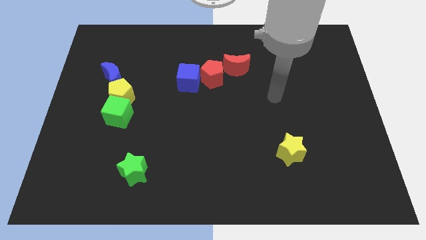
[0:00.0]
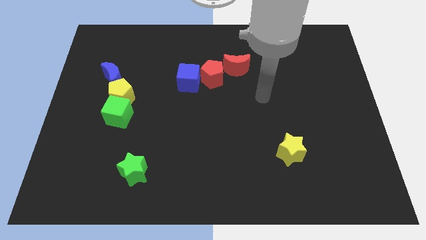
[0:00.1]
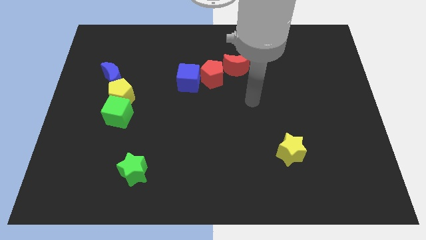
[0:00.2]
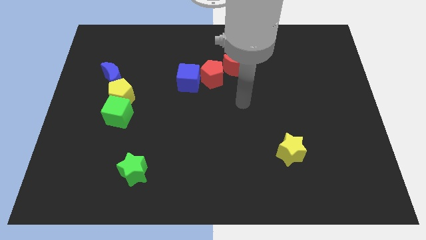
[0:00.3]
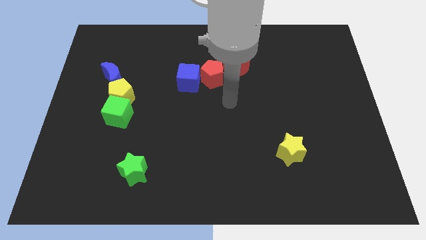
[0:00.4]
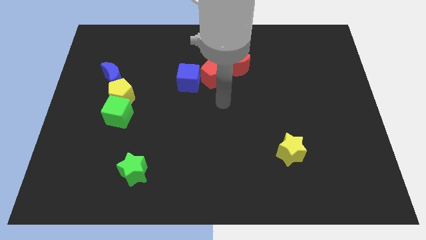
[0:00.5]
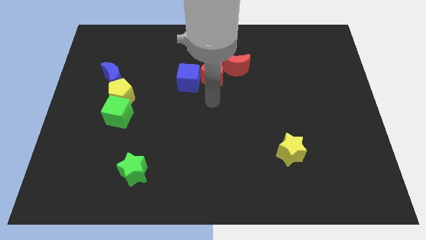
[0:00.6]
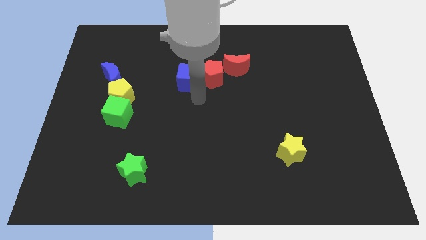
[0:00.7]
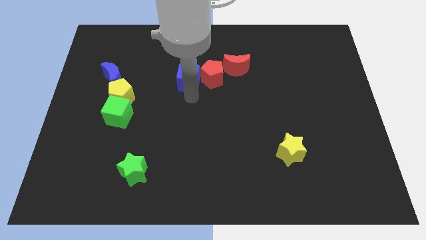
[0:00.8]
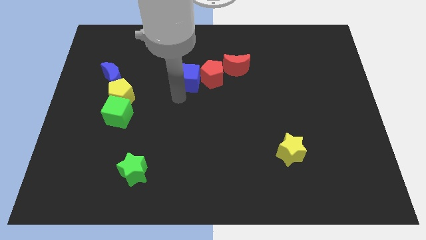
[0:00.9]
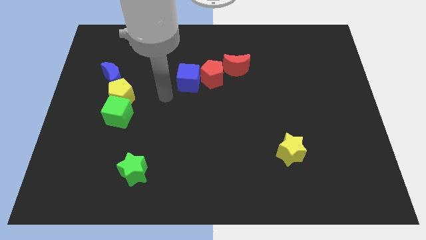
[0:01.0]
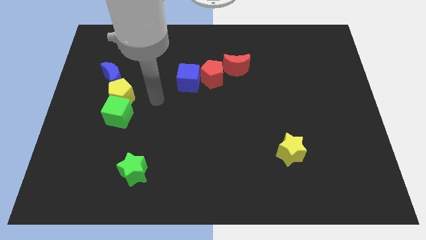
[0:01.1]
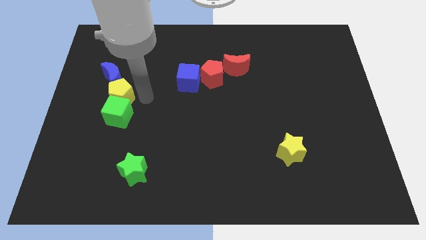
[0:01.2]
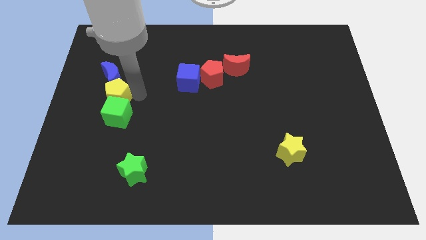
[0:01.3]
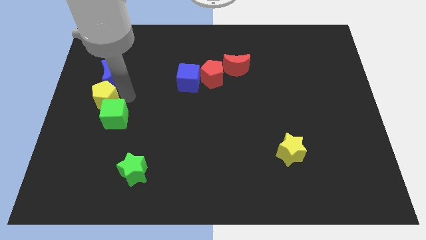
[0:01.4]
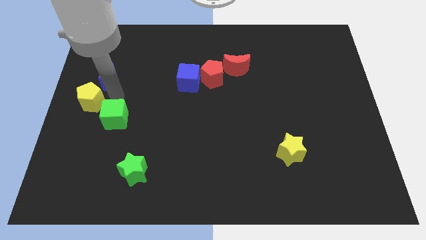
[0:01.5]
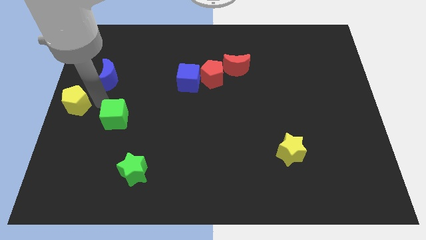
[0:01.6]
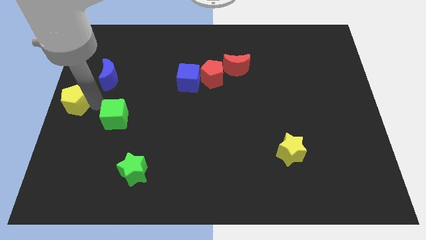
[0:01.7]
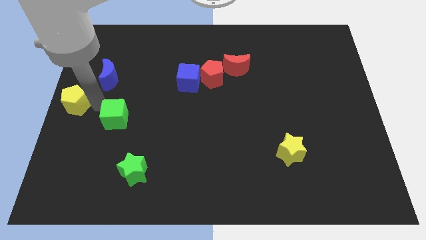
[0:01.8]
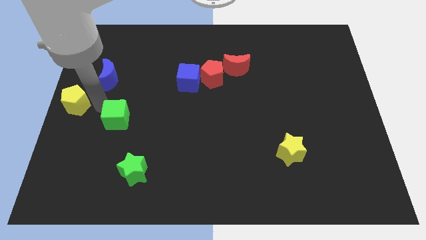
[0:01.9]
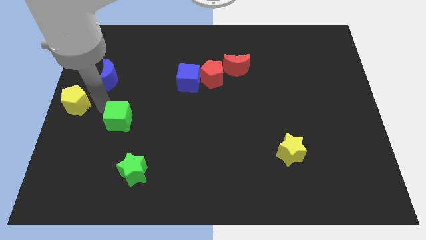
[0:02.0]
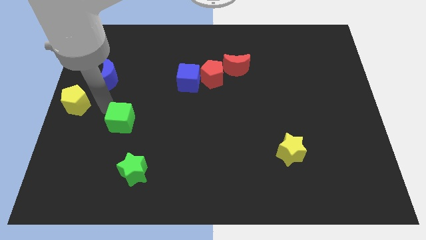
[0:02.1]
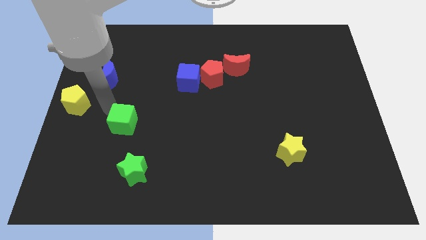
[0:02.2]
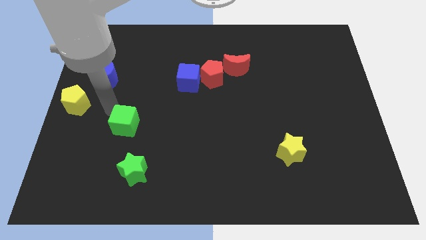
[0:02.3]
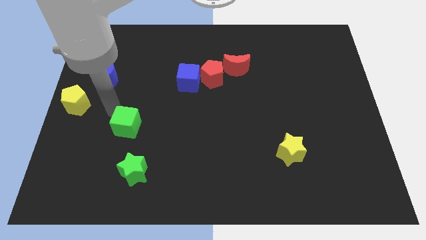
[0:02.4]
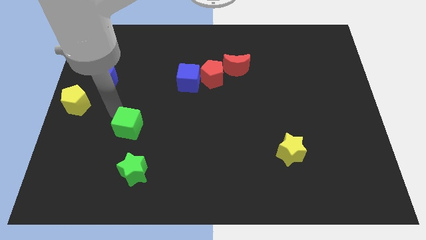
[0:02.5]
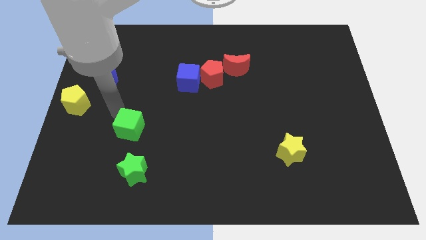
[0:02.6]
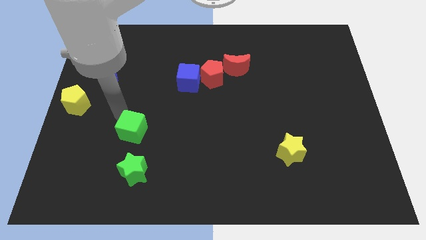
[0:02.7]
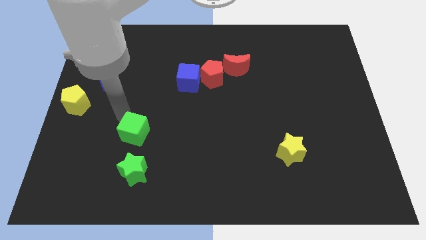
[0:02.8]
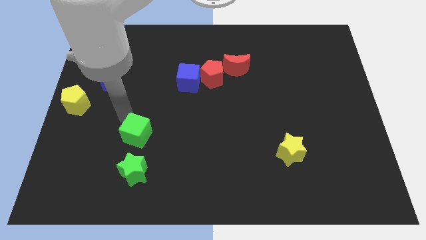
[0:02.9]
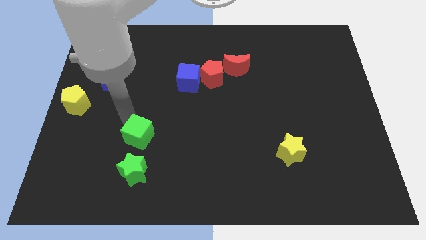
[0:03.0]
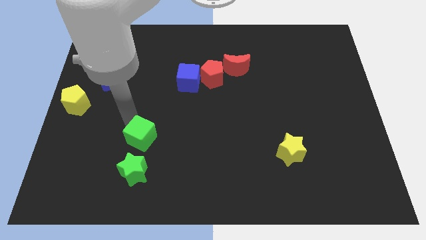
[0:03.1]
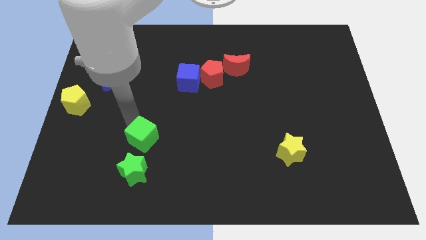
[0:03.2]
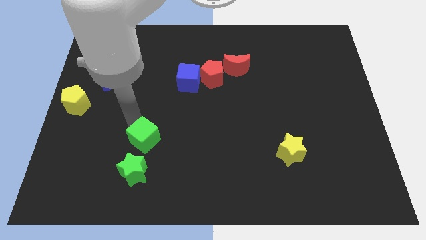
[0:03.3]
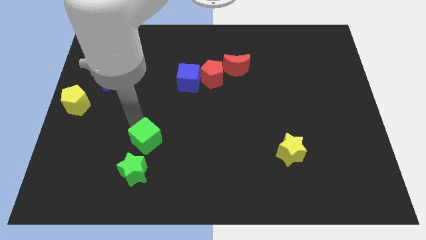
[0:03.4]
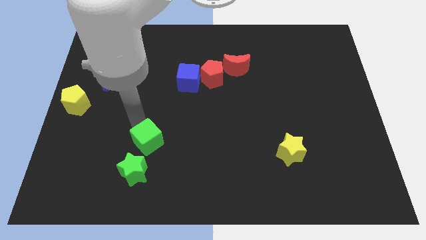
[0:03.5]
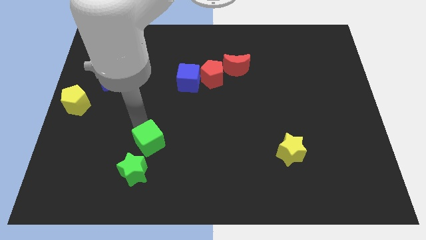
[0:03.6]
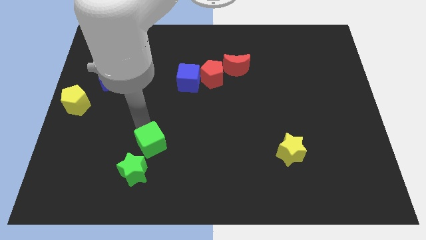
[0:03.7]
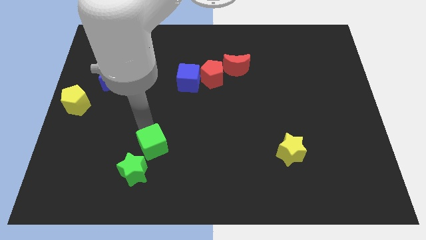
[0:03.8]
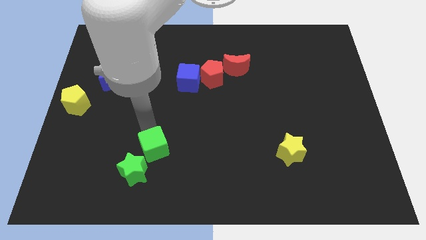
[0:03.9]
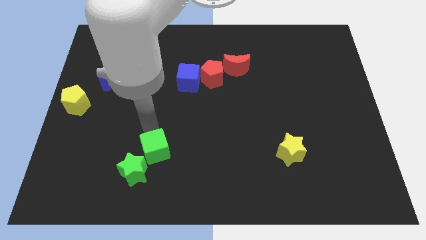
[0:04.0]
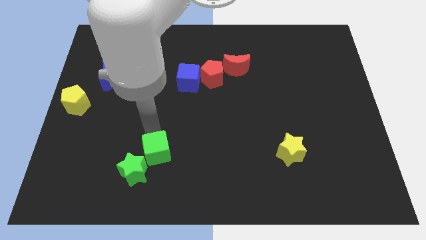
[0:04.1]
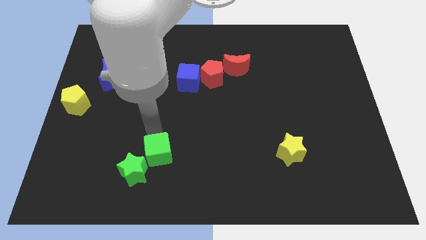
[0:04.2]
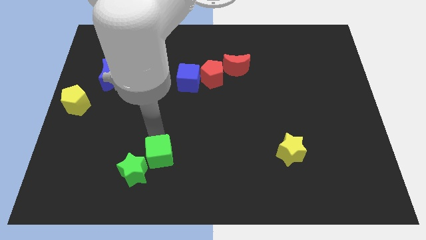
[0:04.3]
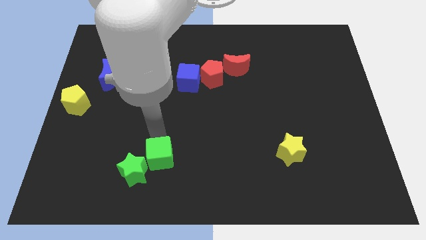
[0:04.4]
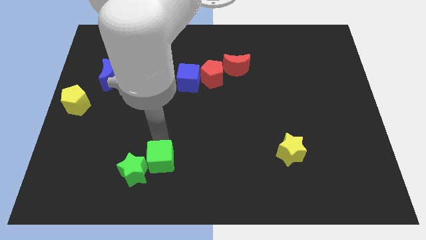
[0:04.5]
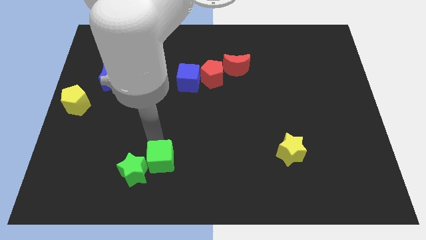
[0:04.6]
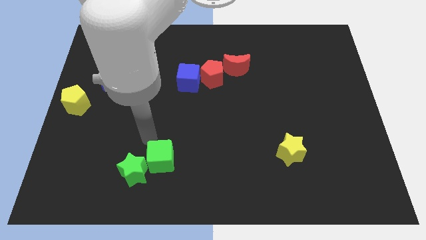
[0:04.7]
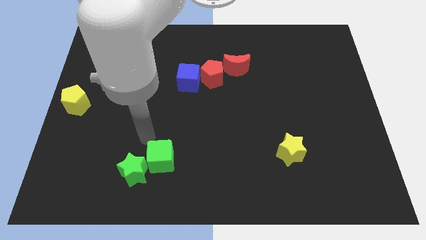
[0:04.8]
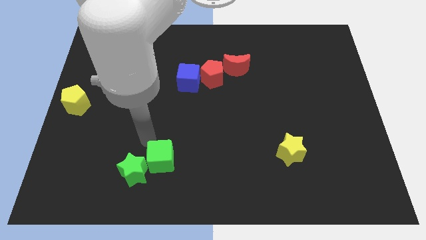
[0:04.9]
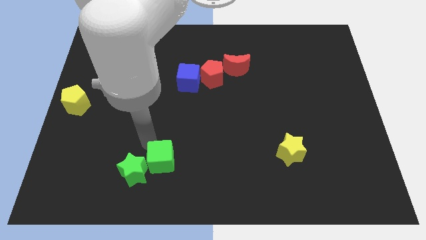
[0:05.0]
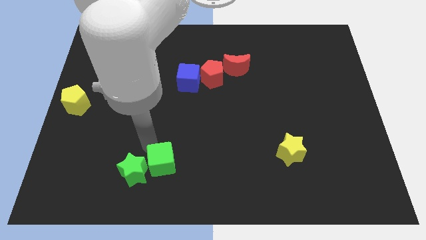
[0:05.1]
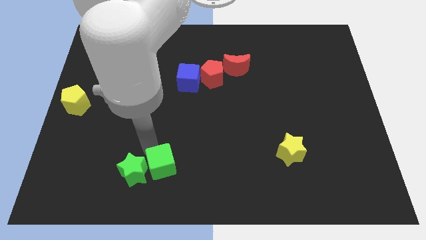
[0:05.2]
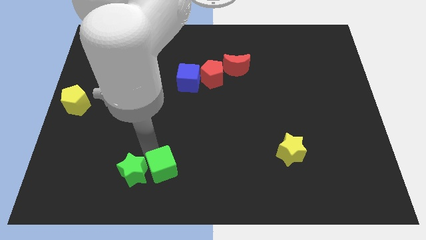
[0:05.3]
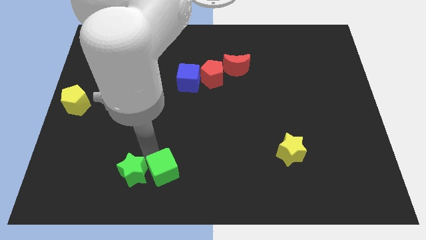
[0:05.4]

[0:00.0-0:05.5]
slide the green cube to the bottom

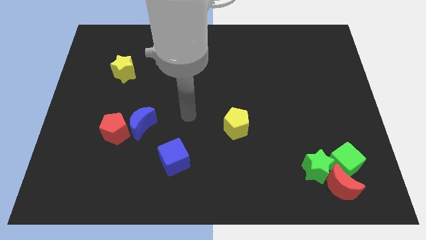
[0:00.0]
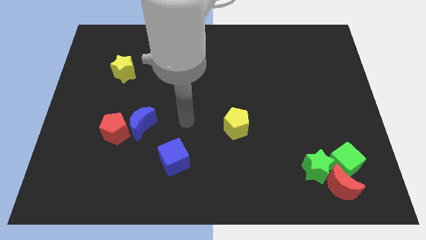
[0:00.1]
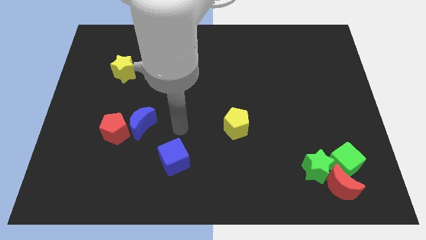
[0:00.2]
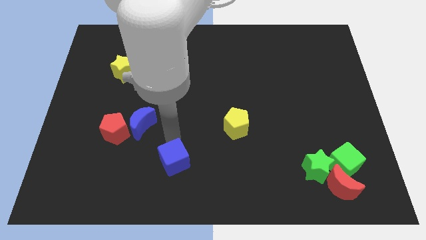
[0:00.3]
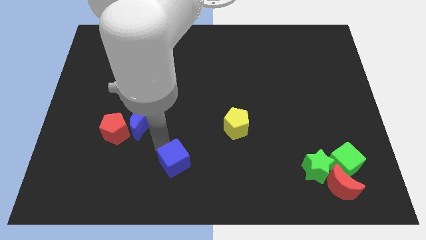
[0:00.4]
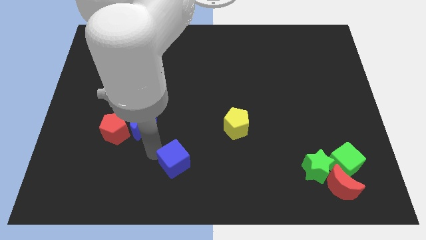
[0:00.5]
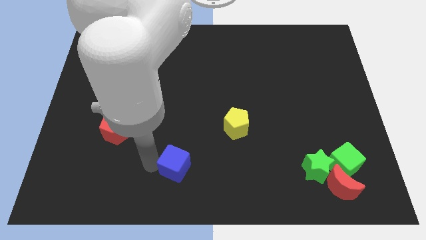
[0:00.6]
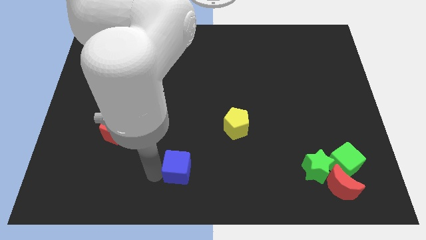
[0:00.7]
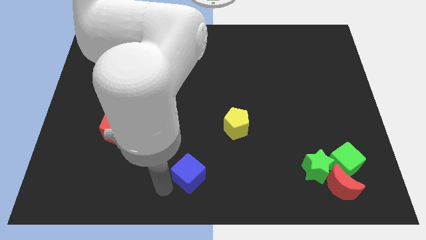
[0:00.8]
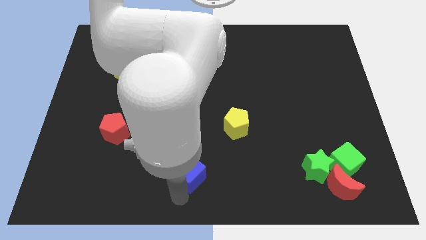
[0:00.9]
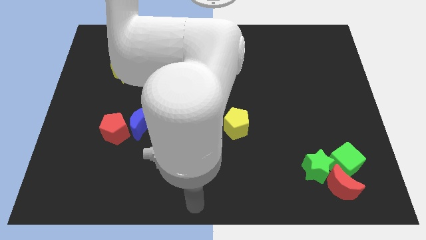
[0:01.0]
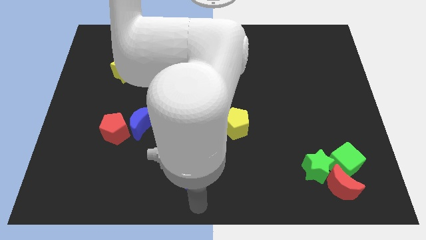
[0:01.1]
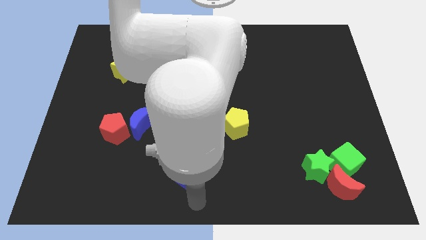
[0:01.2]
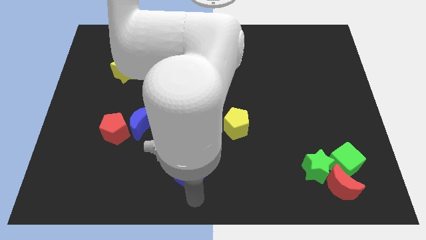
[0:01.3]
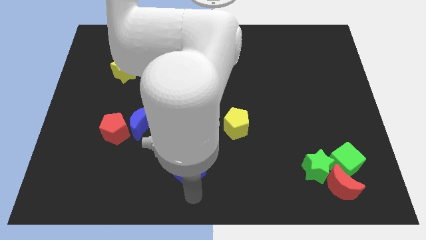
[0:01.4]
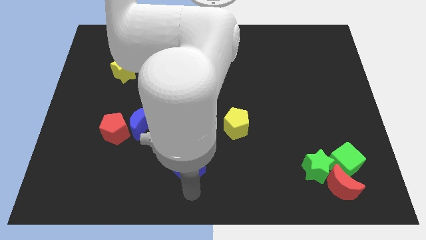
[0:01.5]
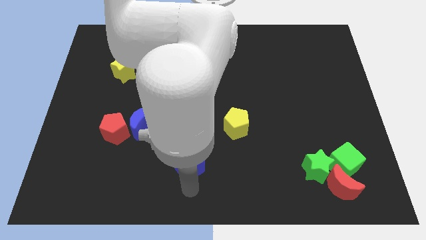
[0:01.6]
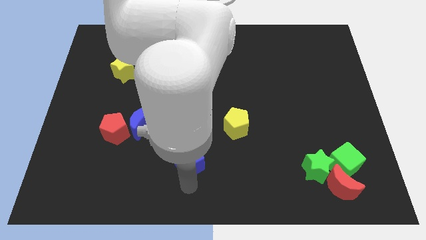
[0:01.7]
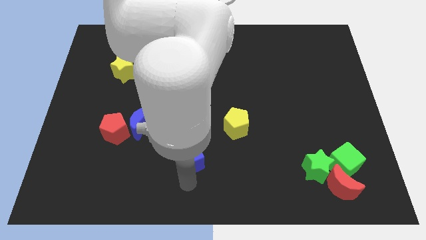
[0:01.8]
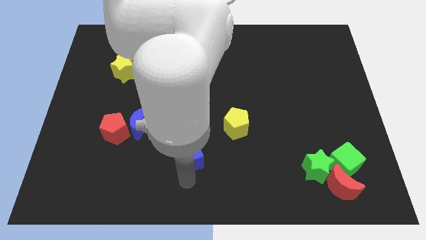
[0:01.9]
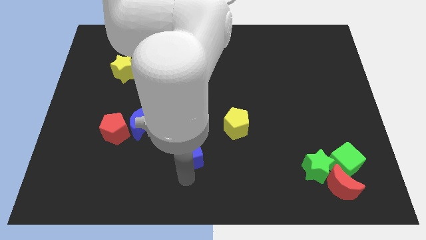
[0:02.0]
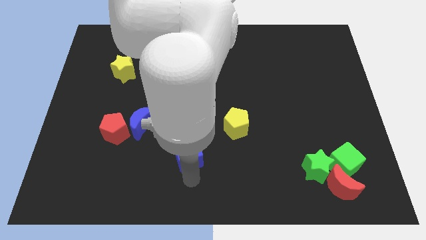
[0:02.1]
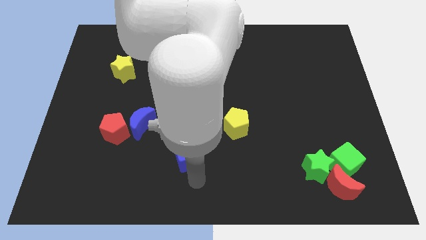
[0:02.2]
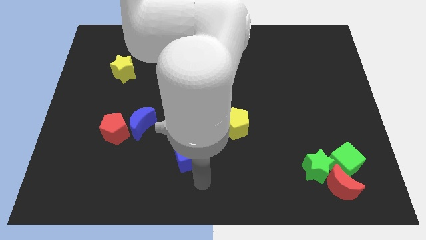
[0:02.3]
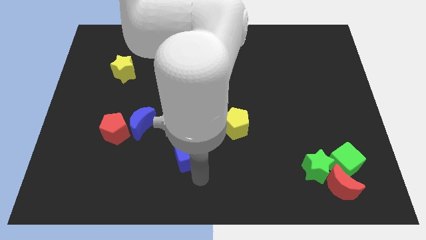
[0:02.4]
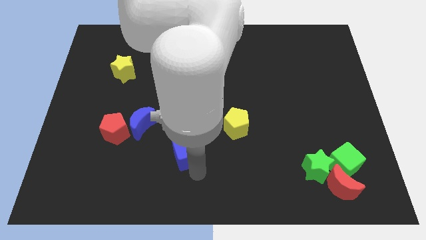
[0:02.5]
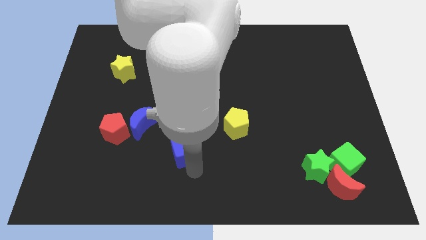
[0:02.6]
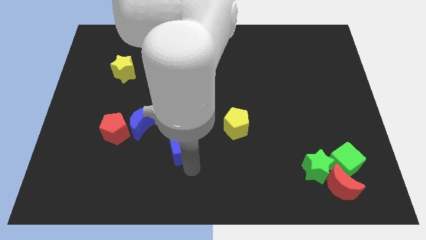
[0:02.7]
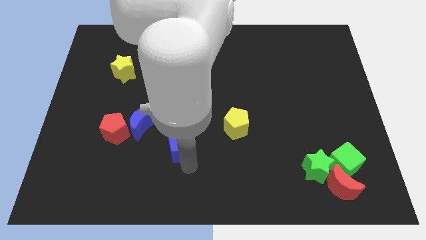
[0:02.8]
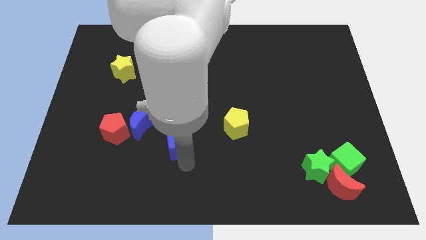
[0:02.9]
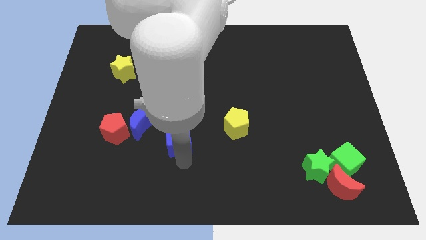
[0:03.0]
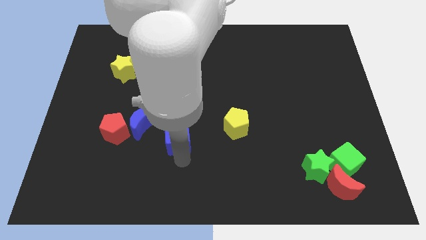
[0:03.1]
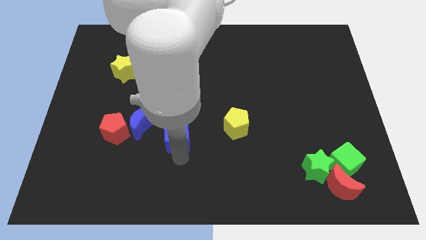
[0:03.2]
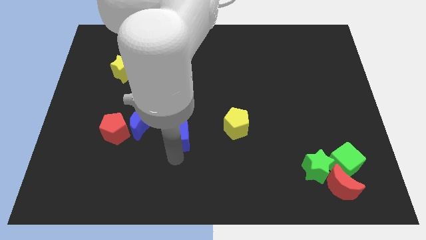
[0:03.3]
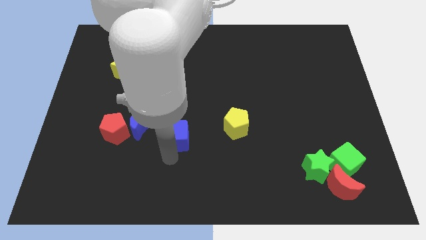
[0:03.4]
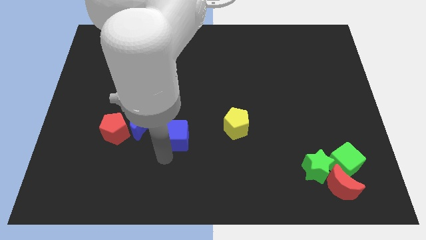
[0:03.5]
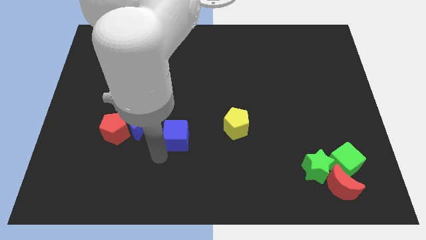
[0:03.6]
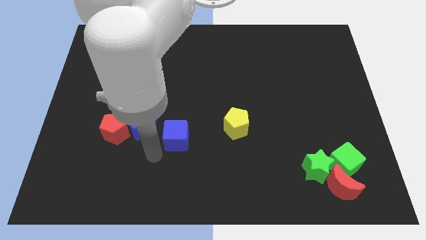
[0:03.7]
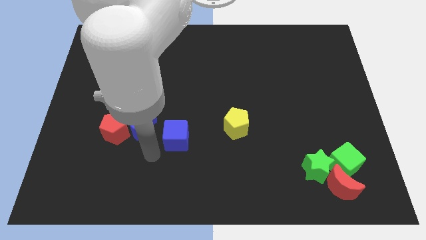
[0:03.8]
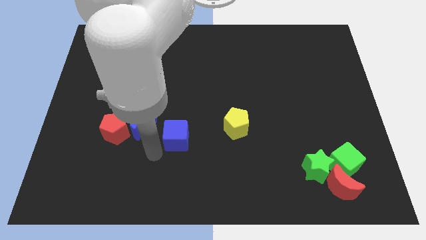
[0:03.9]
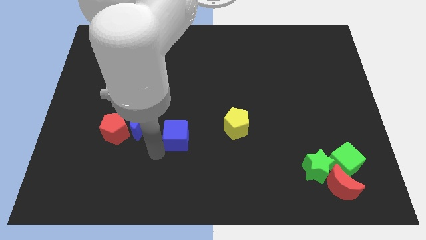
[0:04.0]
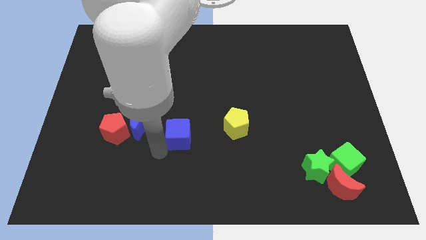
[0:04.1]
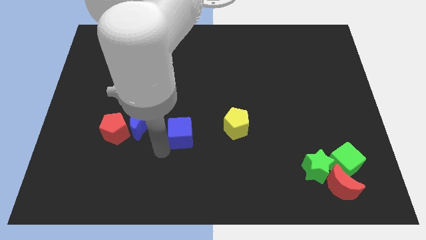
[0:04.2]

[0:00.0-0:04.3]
put the blue cube to the middle of the board
